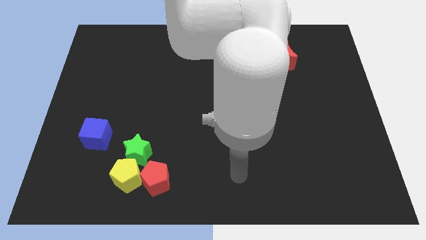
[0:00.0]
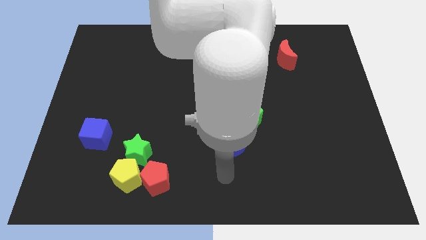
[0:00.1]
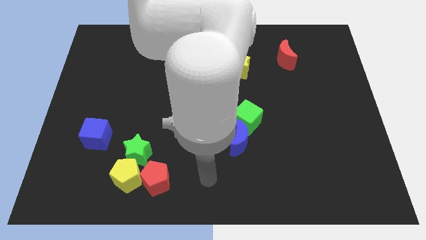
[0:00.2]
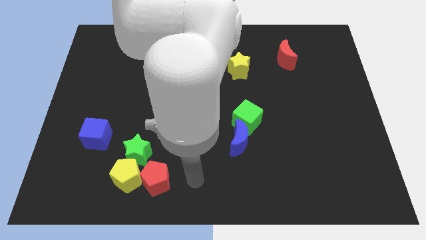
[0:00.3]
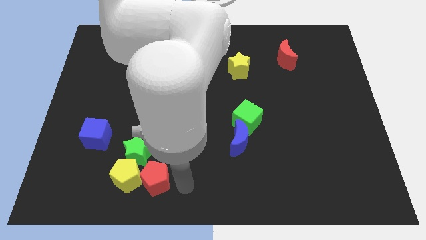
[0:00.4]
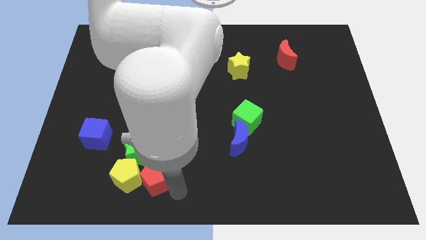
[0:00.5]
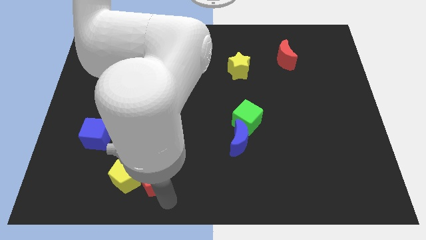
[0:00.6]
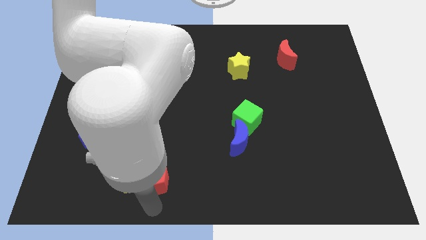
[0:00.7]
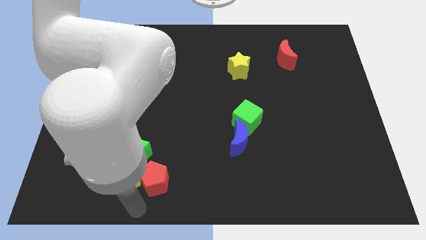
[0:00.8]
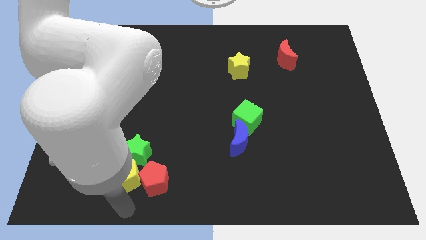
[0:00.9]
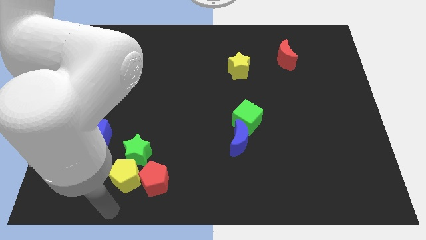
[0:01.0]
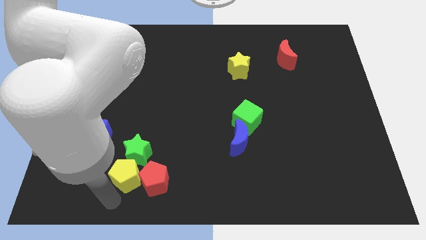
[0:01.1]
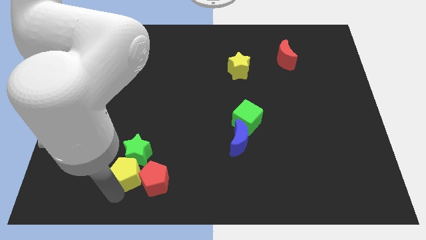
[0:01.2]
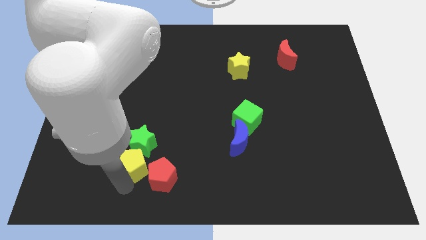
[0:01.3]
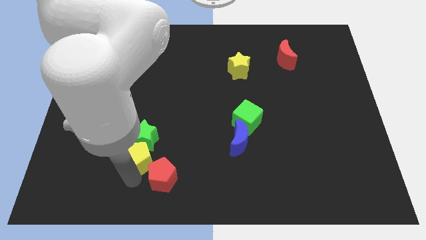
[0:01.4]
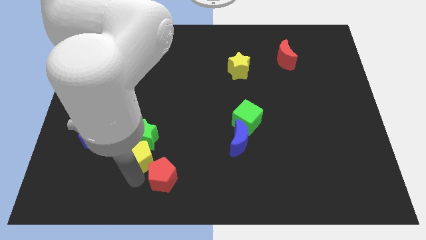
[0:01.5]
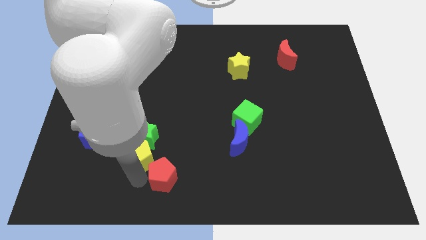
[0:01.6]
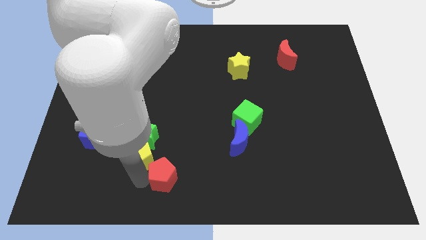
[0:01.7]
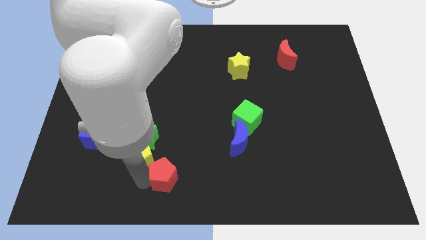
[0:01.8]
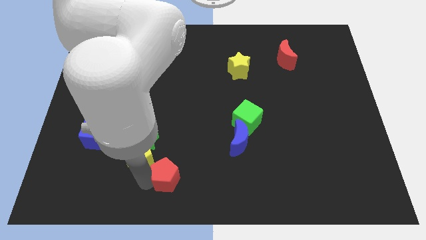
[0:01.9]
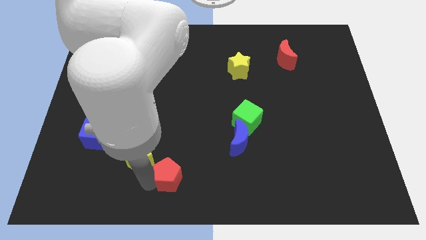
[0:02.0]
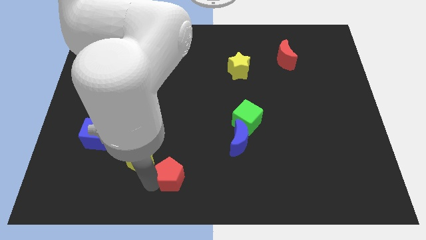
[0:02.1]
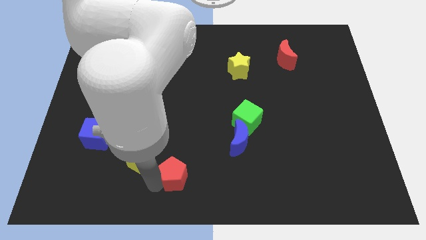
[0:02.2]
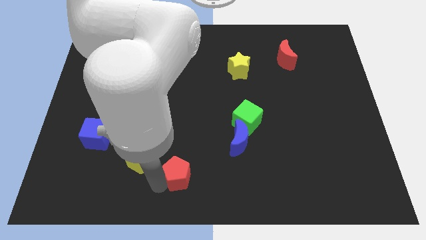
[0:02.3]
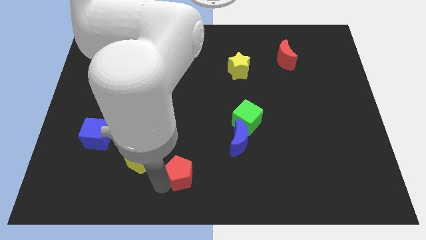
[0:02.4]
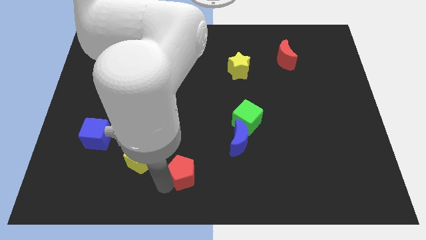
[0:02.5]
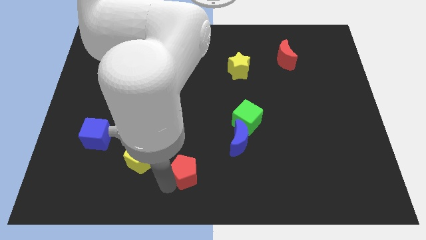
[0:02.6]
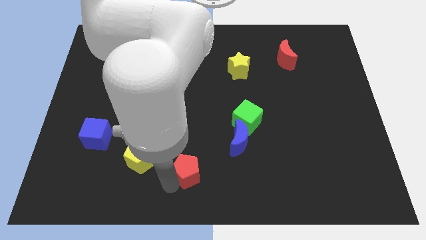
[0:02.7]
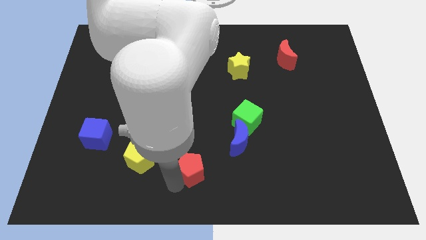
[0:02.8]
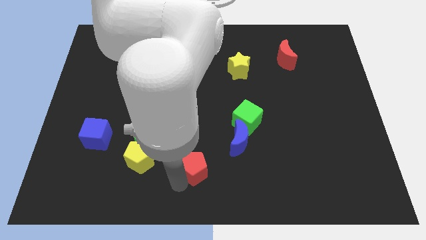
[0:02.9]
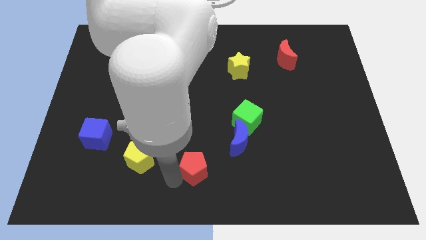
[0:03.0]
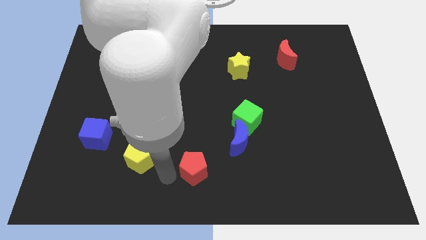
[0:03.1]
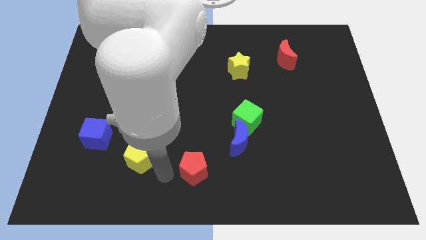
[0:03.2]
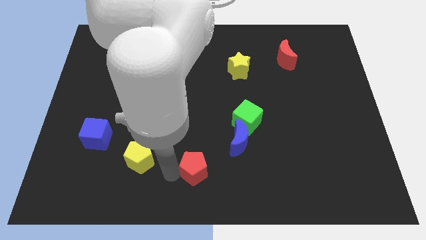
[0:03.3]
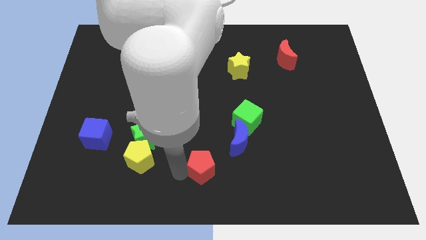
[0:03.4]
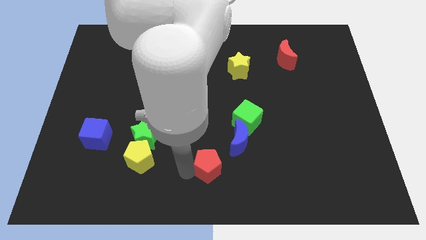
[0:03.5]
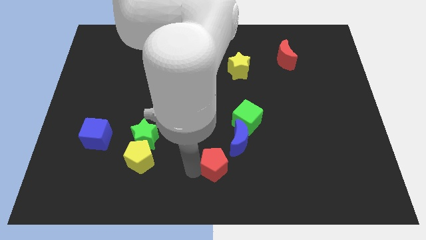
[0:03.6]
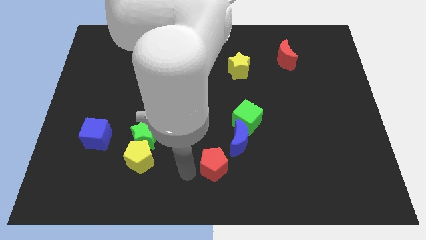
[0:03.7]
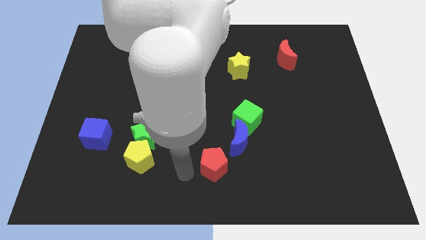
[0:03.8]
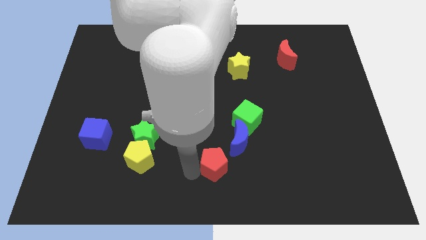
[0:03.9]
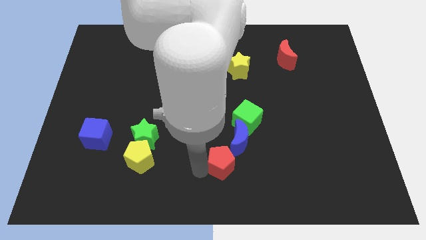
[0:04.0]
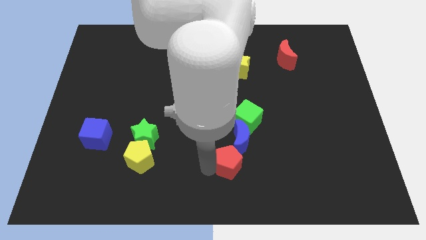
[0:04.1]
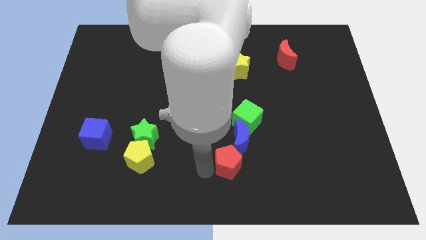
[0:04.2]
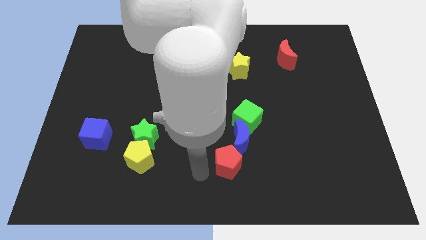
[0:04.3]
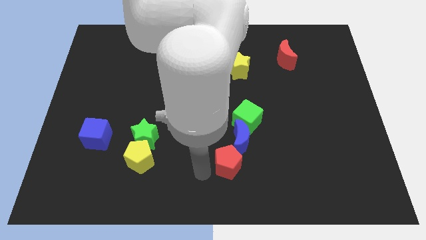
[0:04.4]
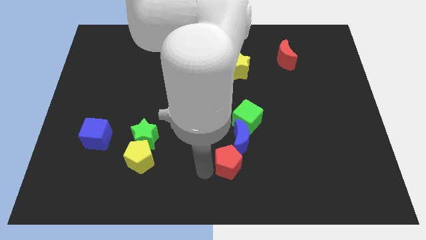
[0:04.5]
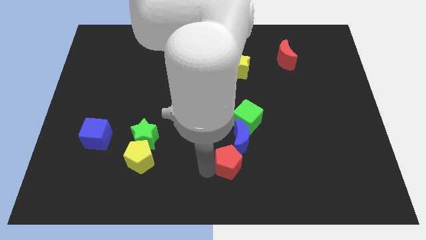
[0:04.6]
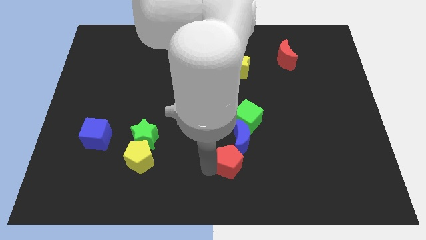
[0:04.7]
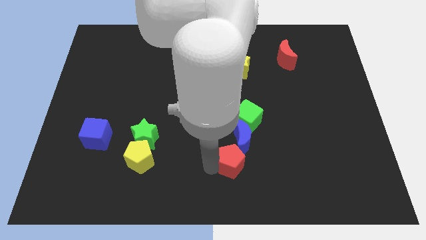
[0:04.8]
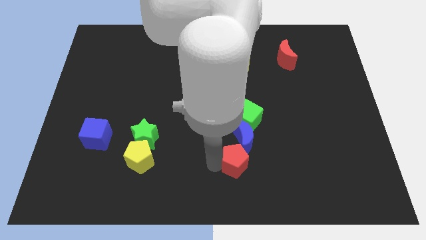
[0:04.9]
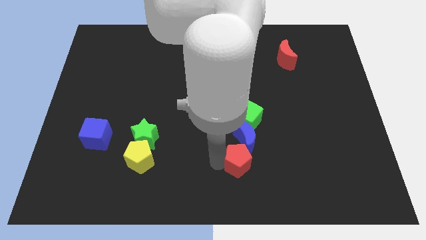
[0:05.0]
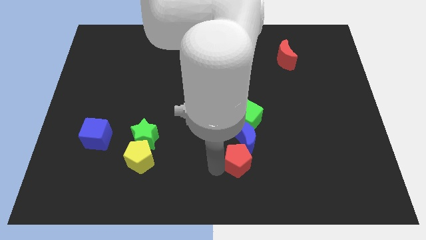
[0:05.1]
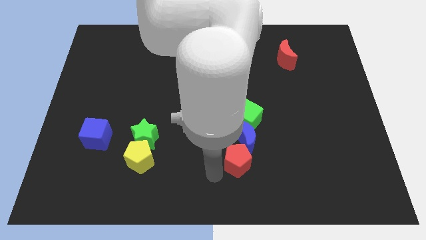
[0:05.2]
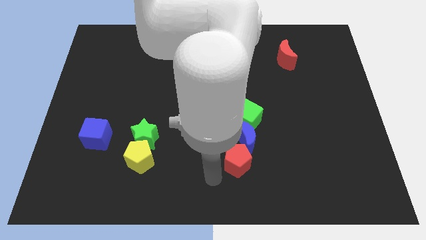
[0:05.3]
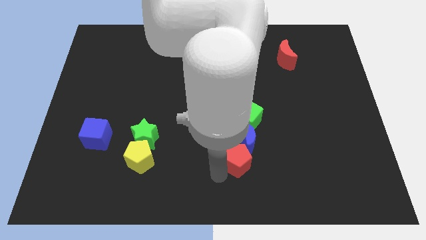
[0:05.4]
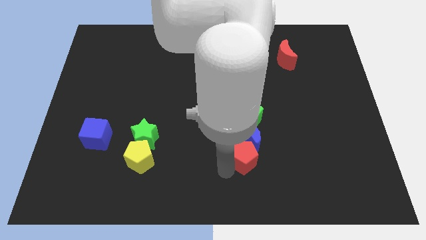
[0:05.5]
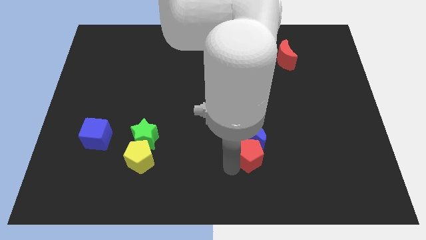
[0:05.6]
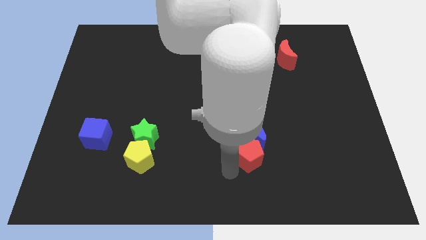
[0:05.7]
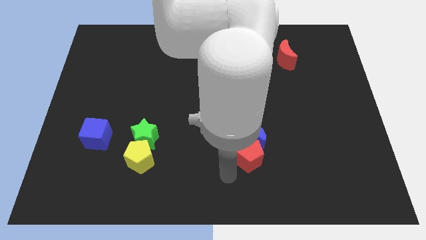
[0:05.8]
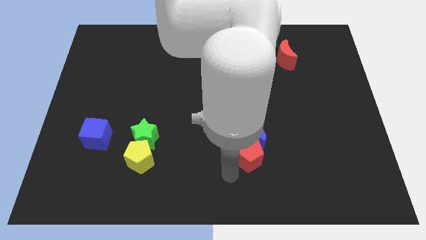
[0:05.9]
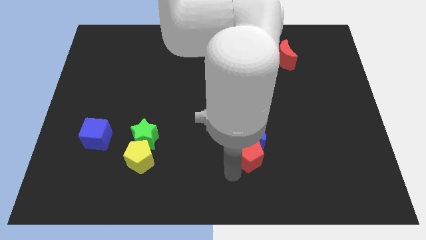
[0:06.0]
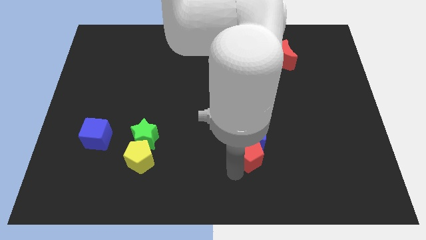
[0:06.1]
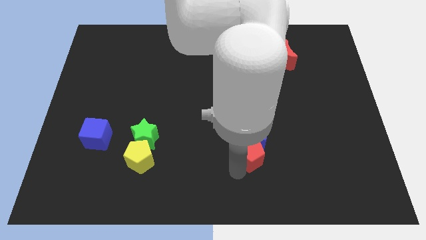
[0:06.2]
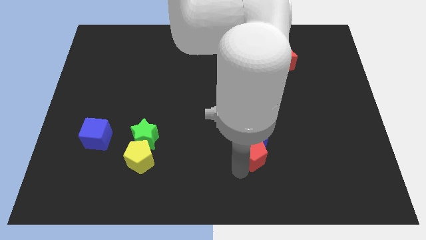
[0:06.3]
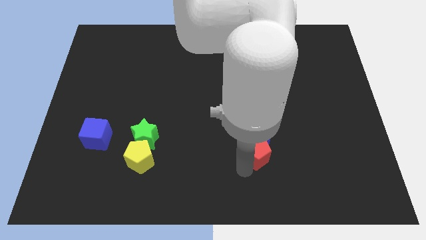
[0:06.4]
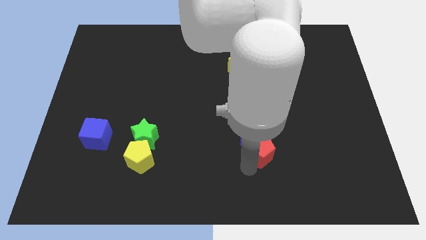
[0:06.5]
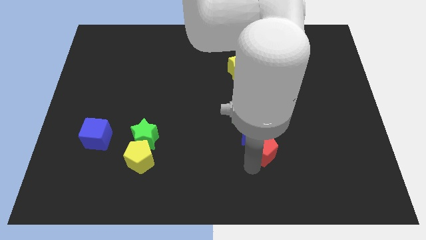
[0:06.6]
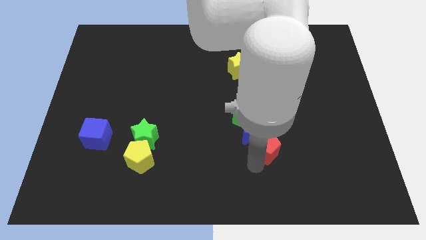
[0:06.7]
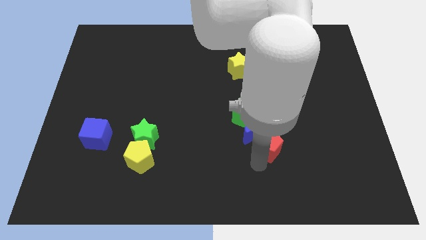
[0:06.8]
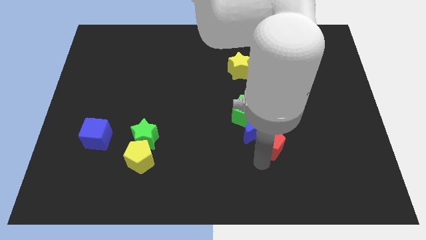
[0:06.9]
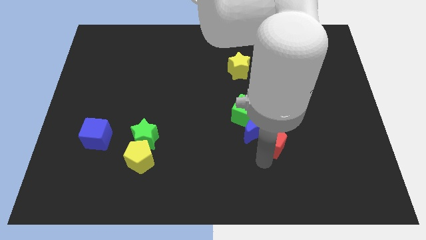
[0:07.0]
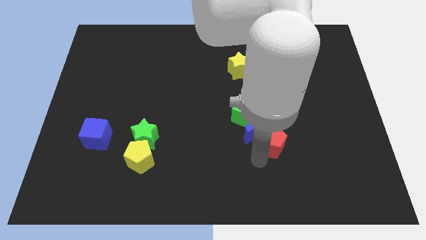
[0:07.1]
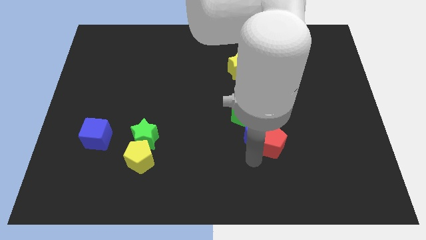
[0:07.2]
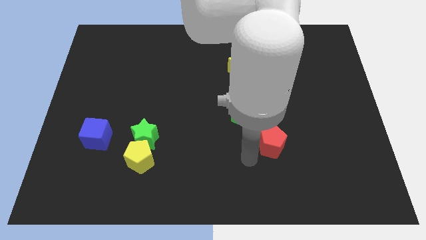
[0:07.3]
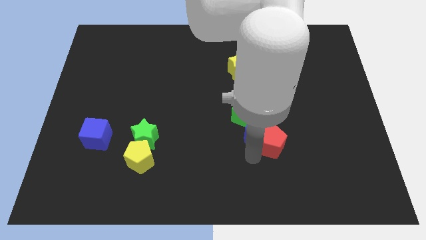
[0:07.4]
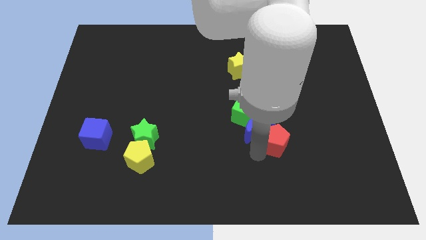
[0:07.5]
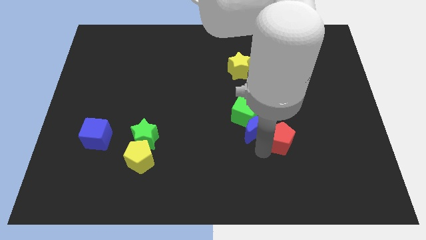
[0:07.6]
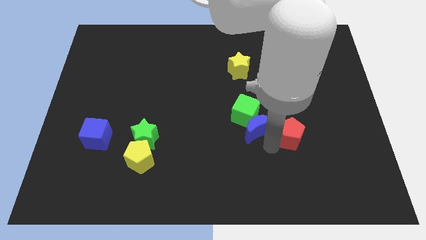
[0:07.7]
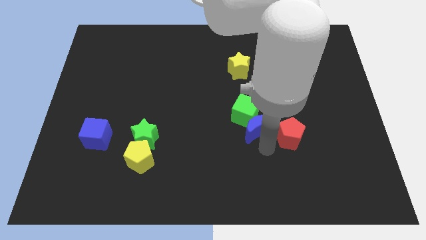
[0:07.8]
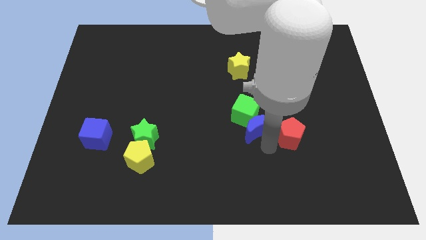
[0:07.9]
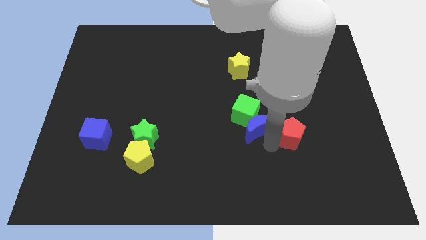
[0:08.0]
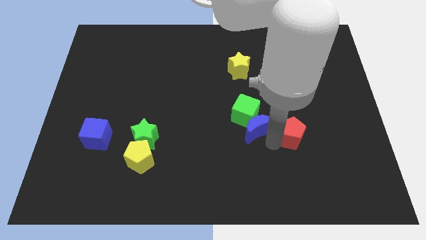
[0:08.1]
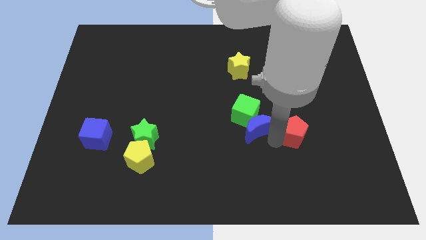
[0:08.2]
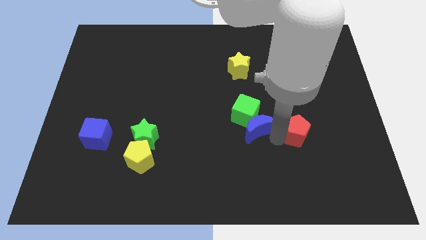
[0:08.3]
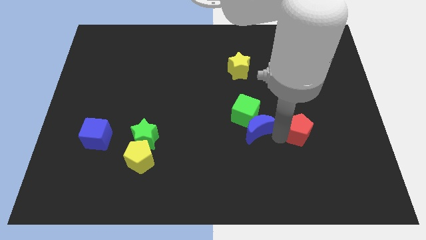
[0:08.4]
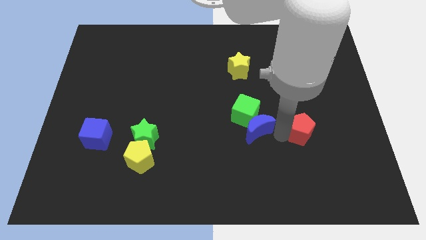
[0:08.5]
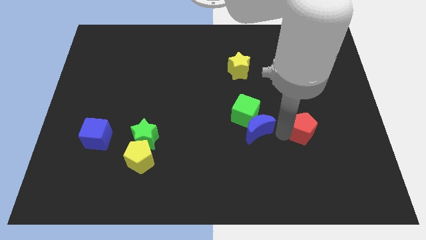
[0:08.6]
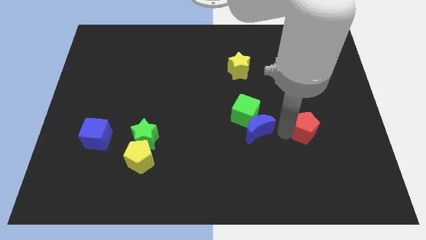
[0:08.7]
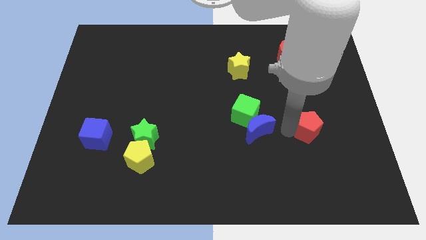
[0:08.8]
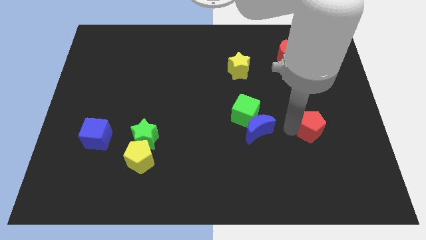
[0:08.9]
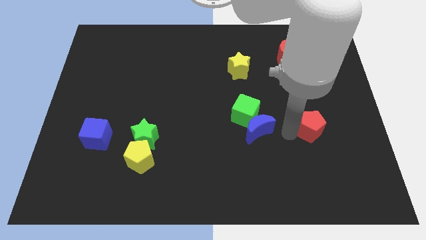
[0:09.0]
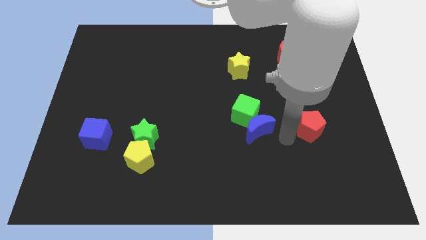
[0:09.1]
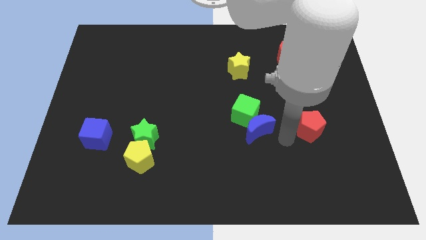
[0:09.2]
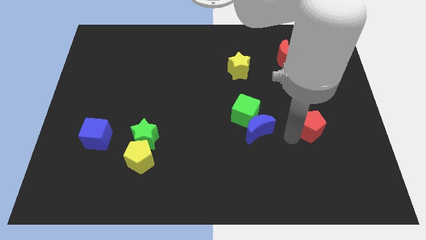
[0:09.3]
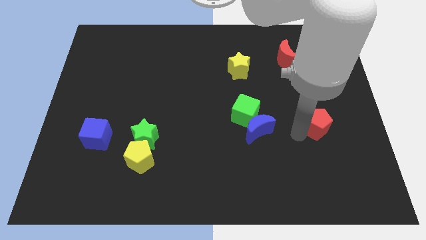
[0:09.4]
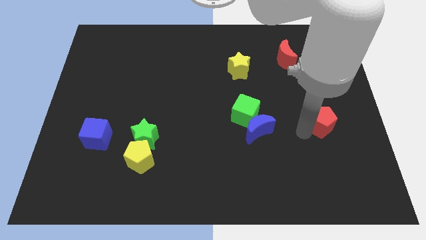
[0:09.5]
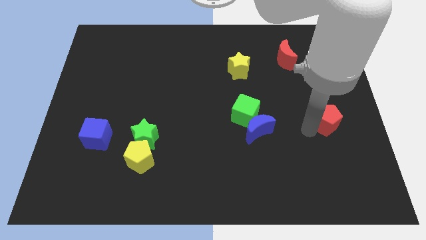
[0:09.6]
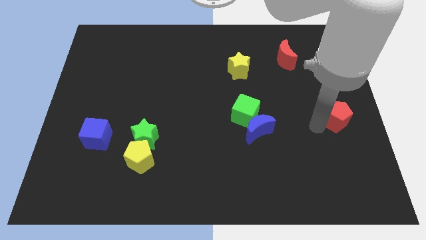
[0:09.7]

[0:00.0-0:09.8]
slide the red pentagon to the right side of the board
